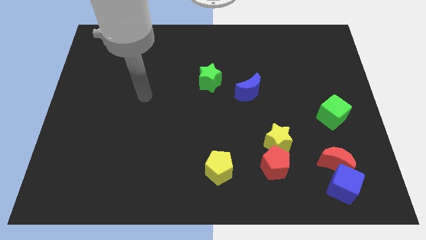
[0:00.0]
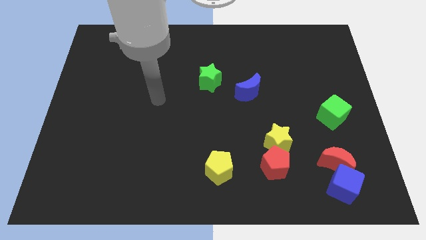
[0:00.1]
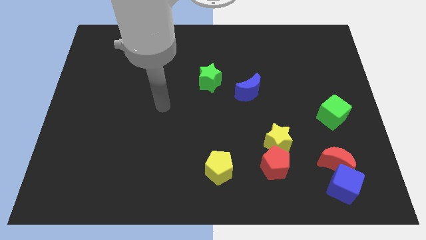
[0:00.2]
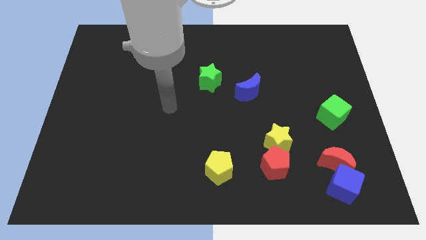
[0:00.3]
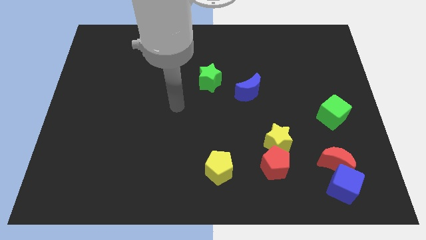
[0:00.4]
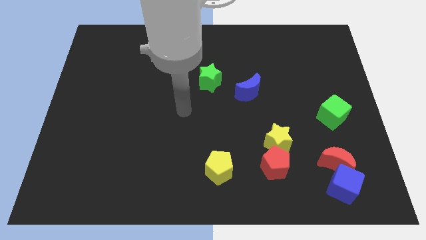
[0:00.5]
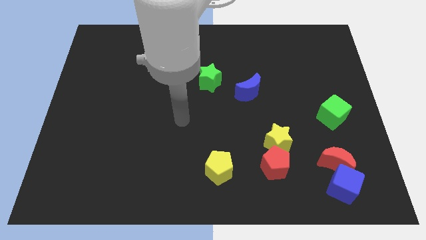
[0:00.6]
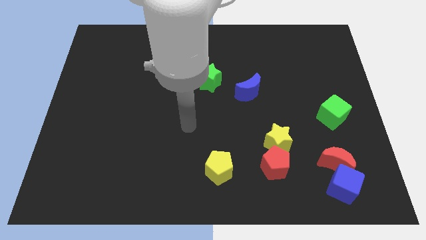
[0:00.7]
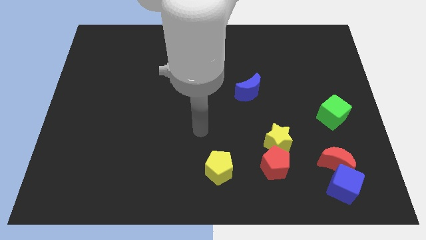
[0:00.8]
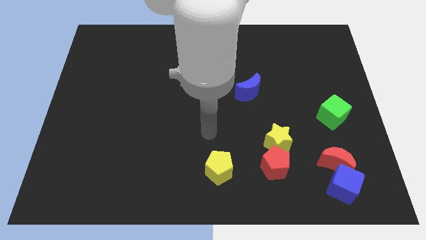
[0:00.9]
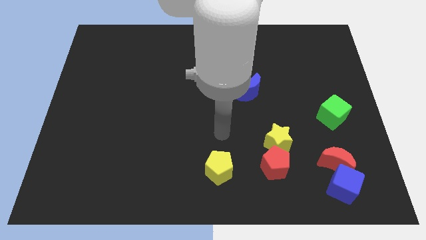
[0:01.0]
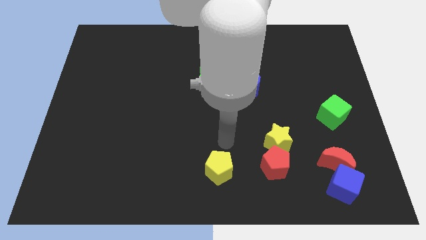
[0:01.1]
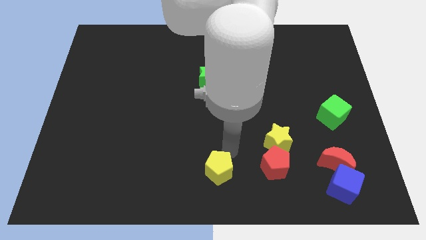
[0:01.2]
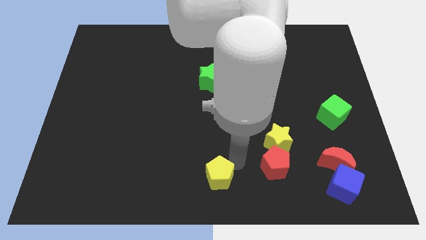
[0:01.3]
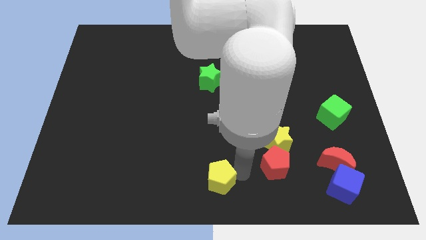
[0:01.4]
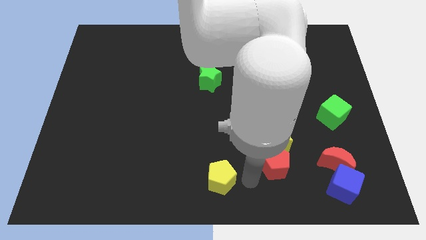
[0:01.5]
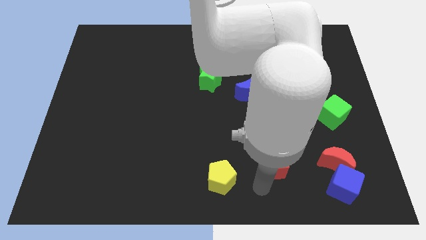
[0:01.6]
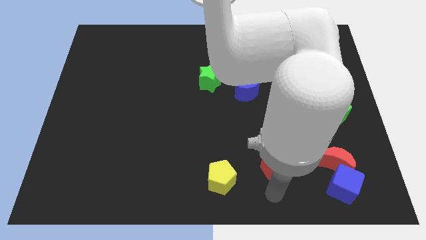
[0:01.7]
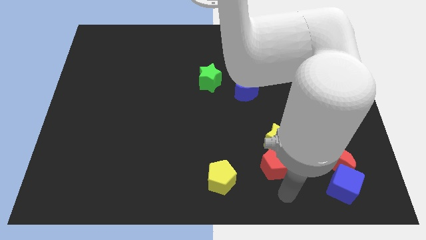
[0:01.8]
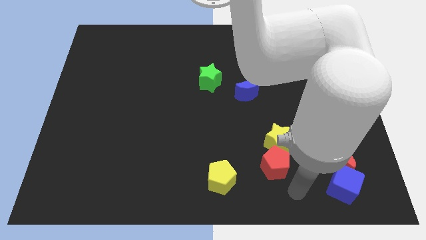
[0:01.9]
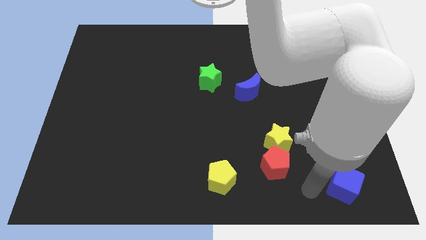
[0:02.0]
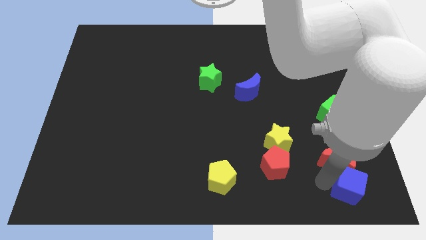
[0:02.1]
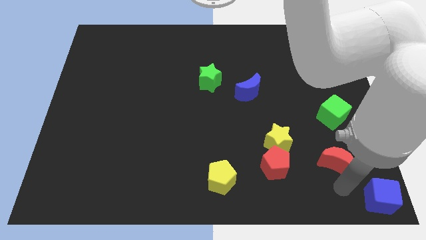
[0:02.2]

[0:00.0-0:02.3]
pull the red moon apart from the blue cube

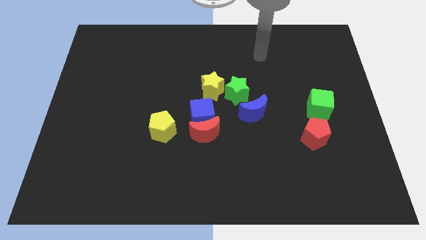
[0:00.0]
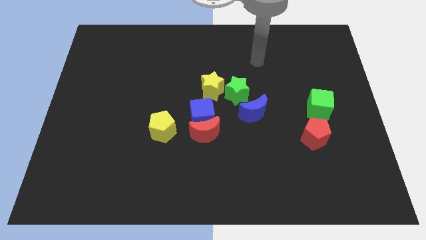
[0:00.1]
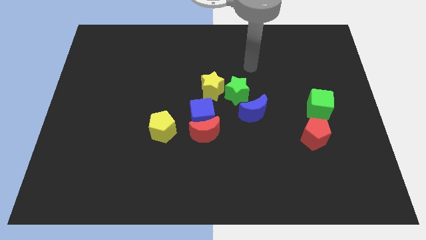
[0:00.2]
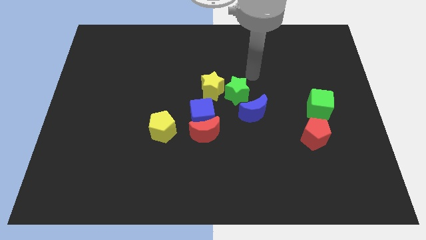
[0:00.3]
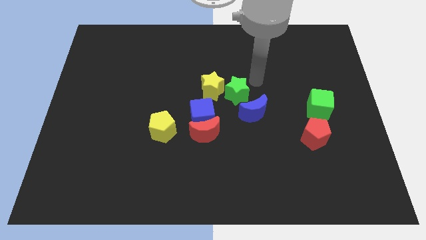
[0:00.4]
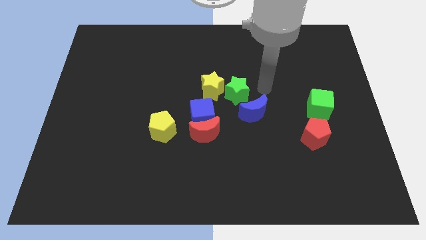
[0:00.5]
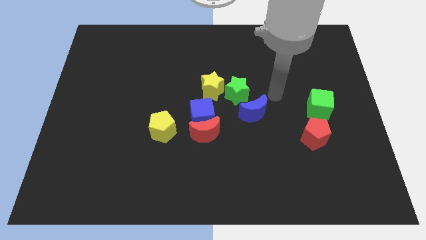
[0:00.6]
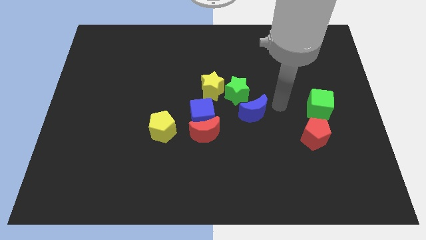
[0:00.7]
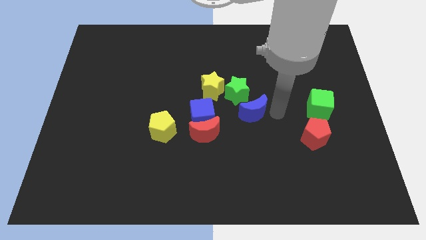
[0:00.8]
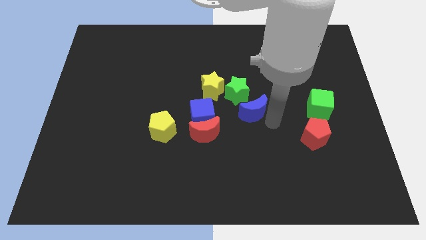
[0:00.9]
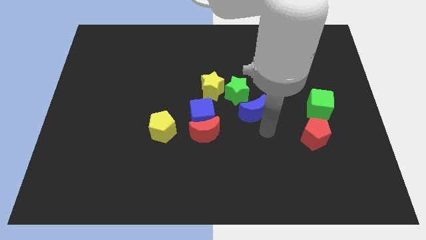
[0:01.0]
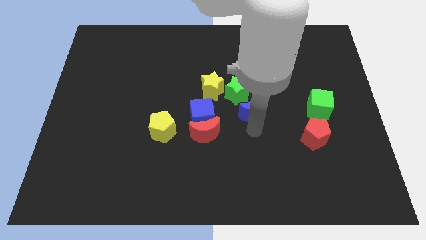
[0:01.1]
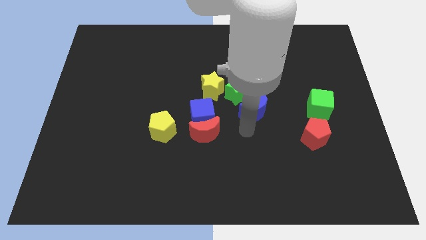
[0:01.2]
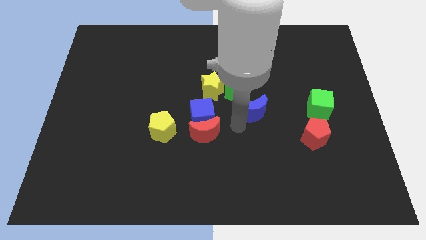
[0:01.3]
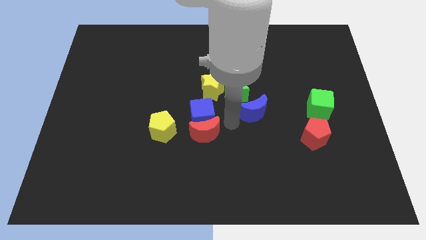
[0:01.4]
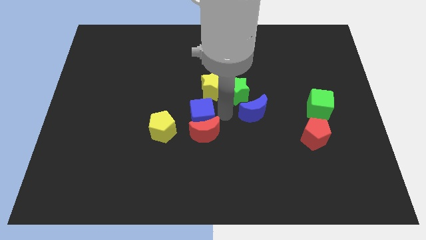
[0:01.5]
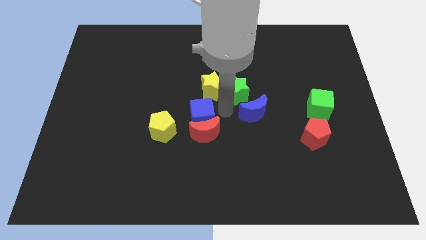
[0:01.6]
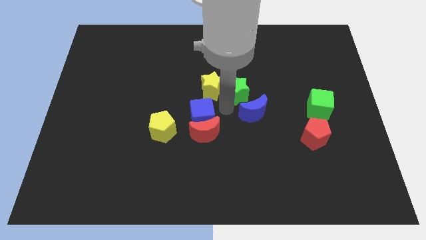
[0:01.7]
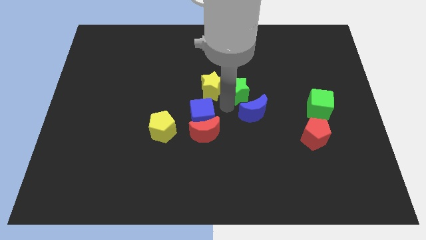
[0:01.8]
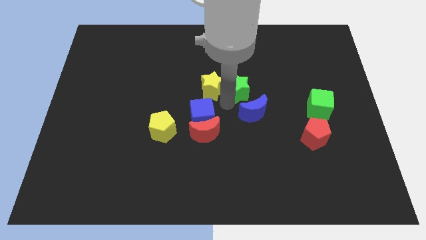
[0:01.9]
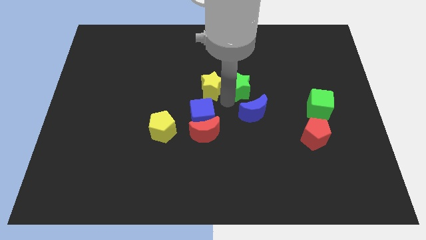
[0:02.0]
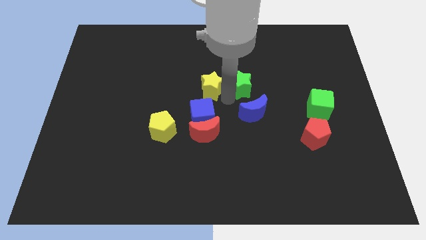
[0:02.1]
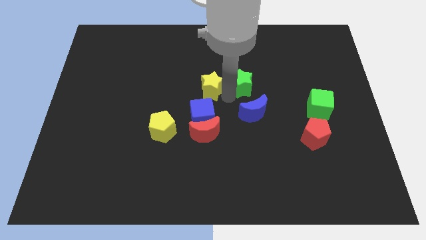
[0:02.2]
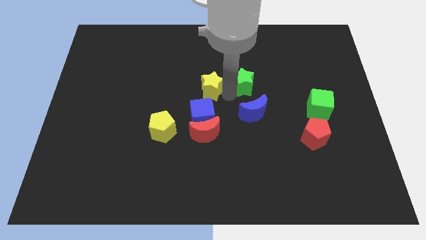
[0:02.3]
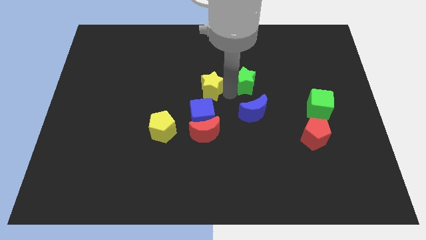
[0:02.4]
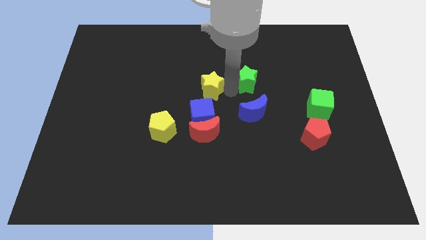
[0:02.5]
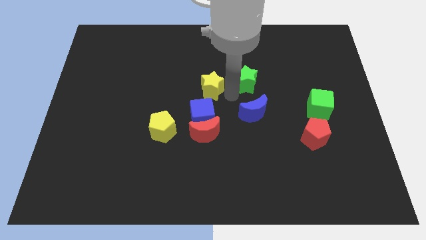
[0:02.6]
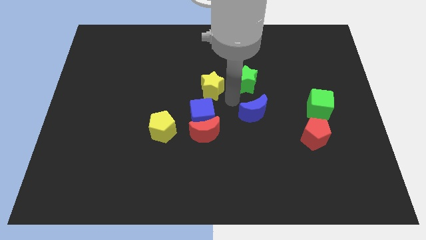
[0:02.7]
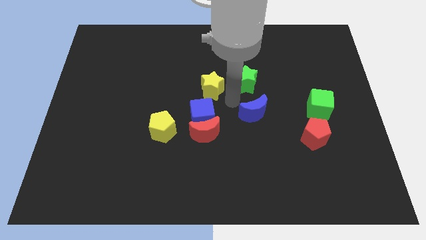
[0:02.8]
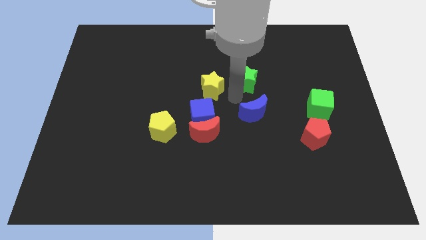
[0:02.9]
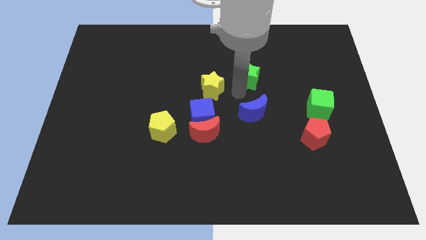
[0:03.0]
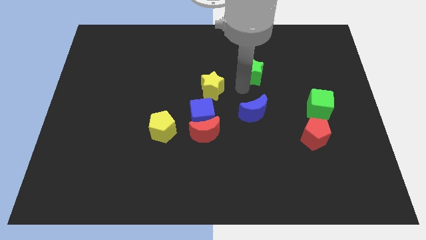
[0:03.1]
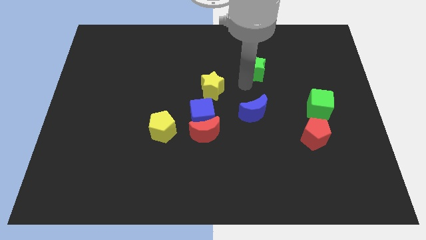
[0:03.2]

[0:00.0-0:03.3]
move the green star away from the yellow star and blue moon

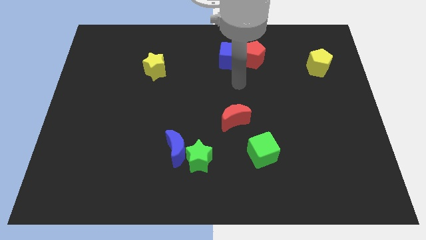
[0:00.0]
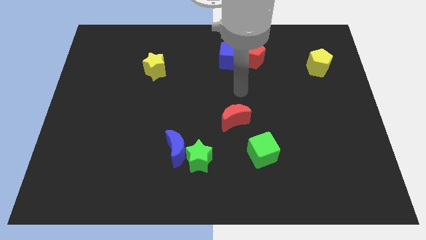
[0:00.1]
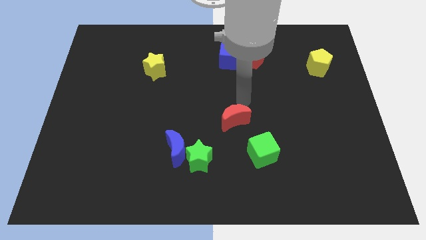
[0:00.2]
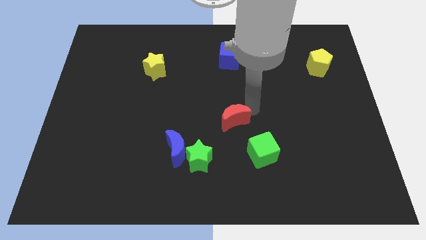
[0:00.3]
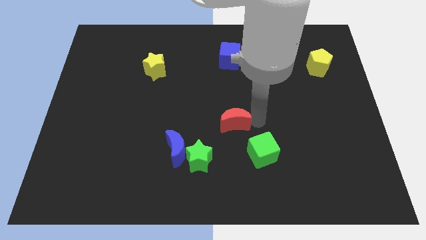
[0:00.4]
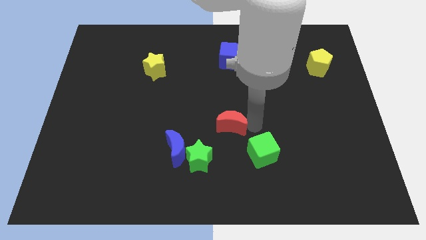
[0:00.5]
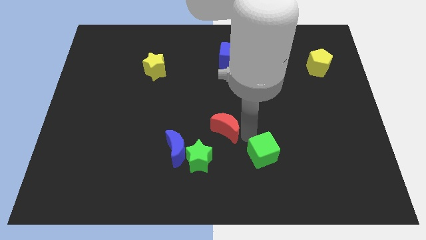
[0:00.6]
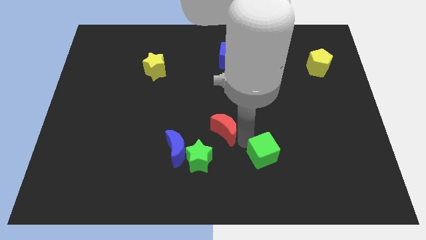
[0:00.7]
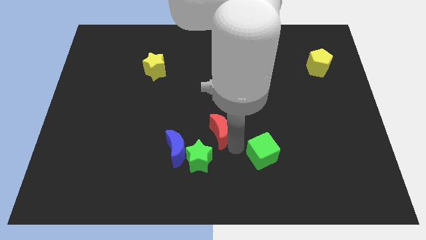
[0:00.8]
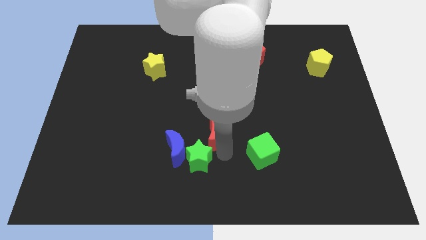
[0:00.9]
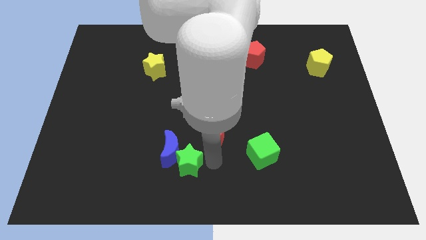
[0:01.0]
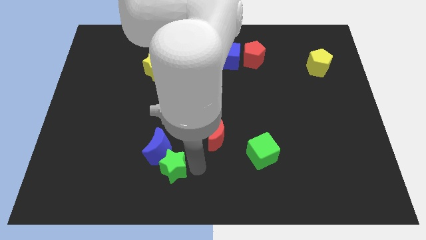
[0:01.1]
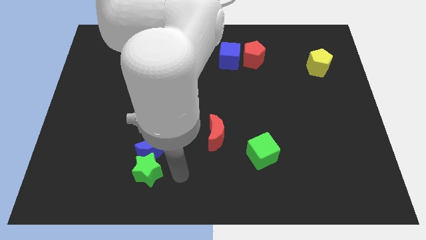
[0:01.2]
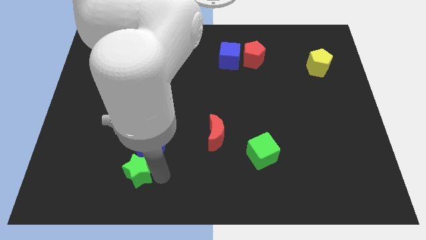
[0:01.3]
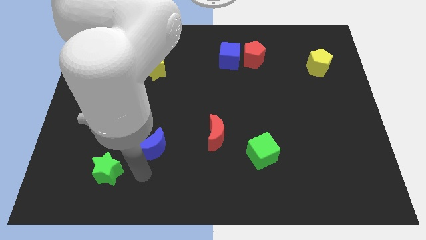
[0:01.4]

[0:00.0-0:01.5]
separate the blue moon from the green star

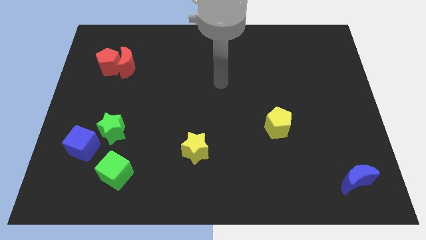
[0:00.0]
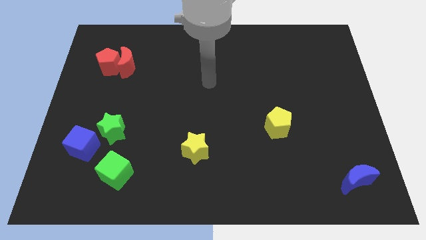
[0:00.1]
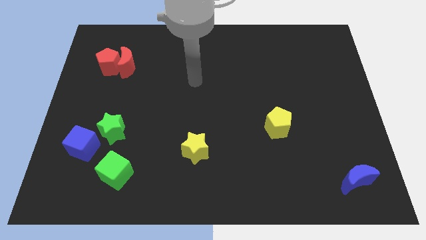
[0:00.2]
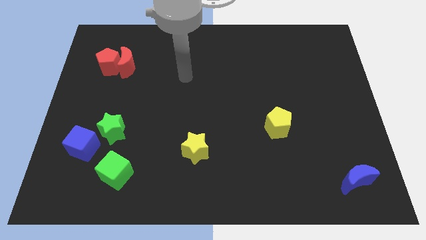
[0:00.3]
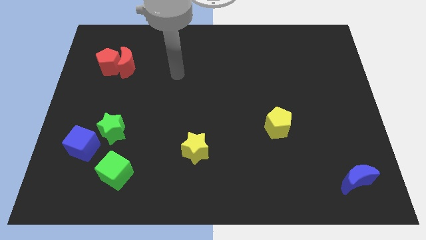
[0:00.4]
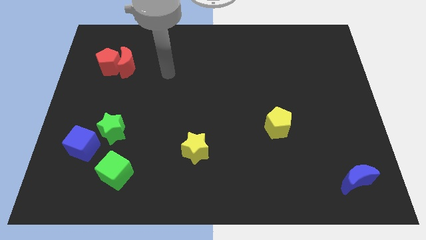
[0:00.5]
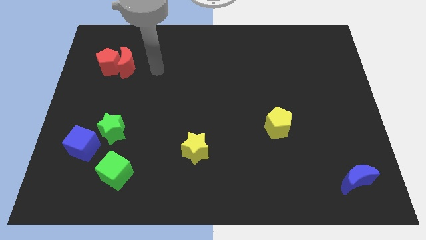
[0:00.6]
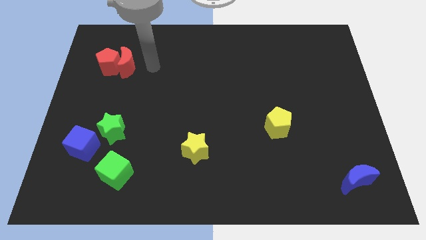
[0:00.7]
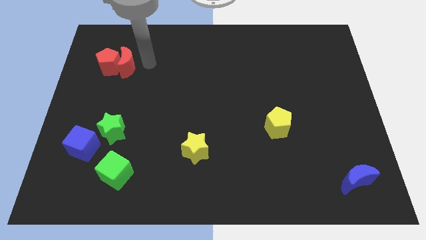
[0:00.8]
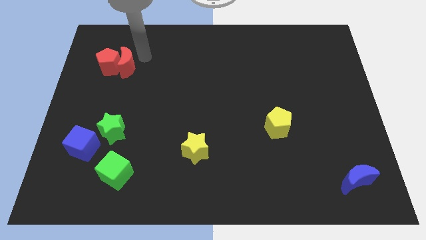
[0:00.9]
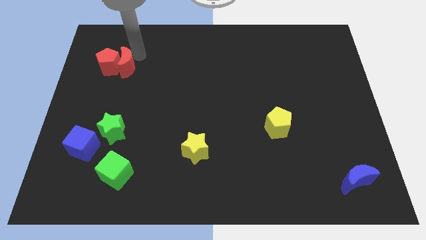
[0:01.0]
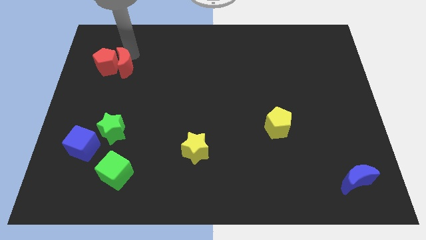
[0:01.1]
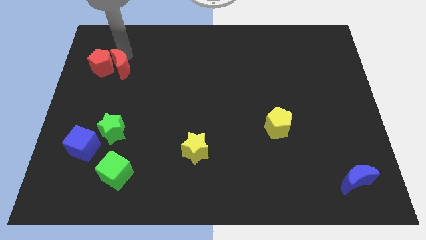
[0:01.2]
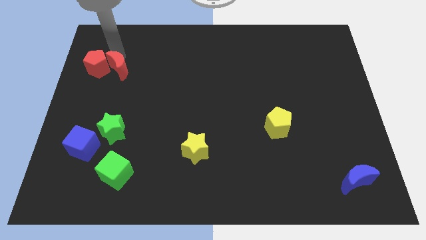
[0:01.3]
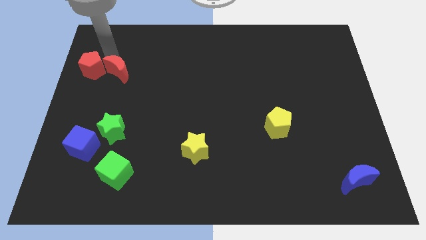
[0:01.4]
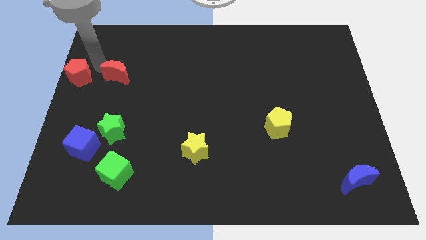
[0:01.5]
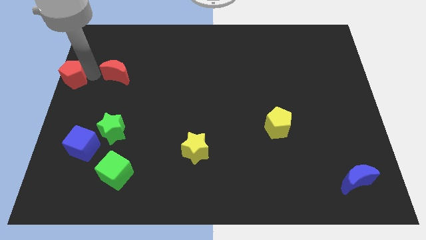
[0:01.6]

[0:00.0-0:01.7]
move the red moon away from the red pentagon

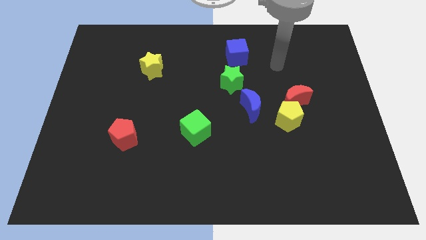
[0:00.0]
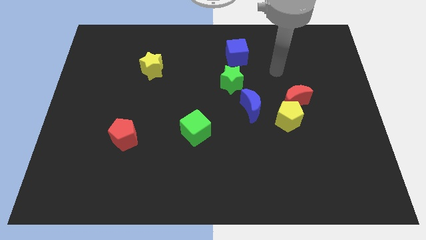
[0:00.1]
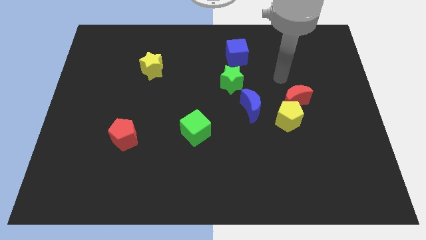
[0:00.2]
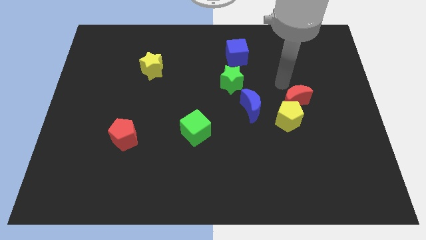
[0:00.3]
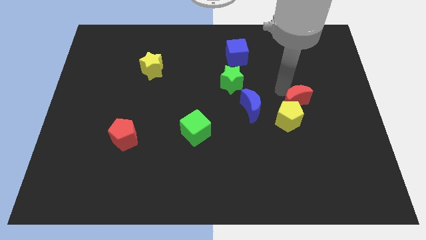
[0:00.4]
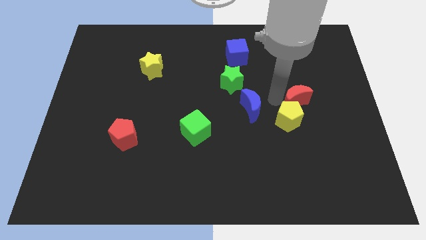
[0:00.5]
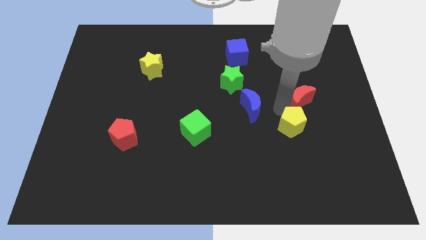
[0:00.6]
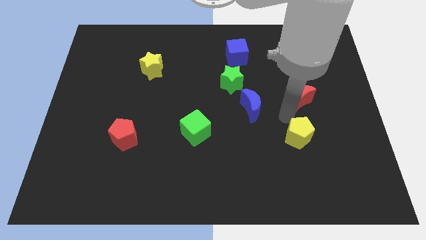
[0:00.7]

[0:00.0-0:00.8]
pull the red moon apart from the yellow pentagon
